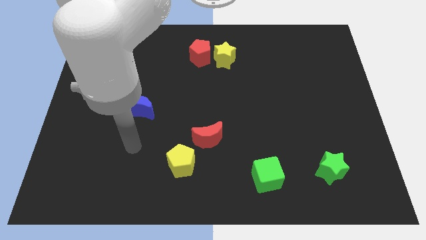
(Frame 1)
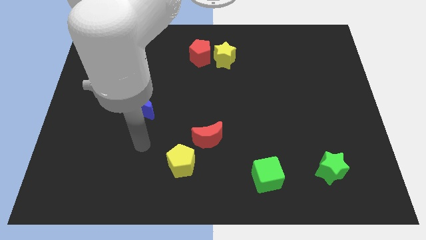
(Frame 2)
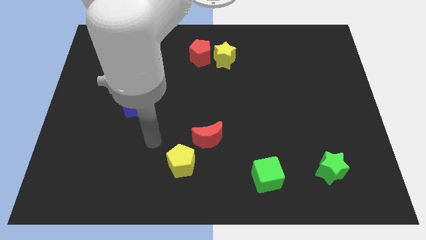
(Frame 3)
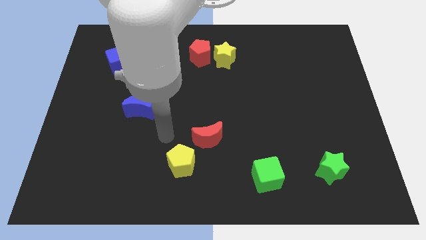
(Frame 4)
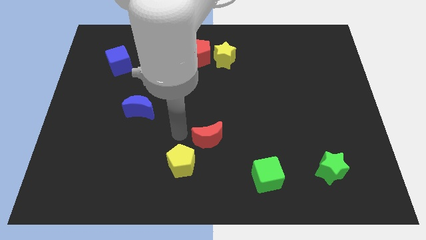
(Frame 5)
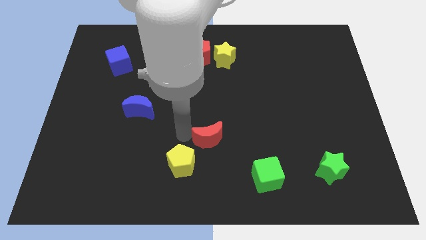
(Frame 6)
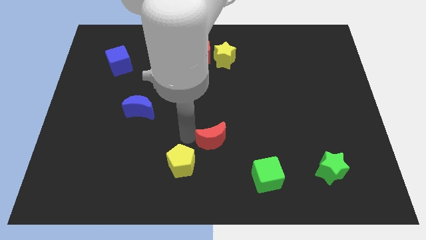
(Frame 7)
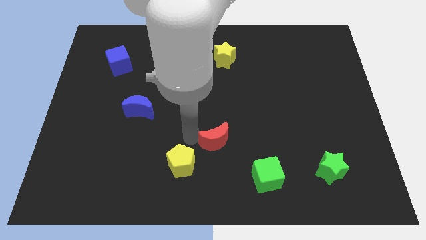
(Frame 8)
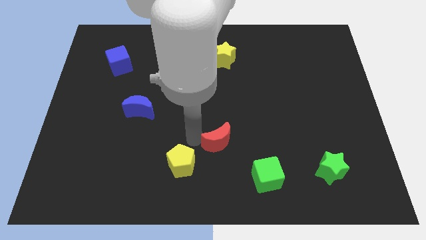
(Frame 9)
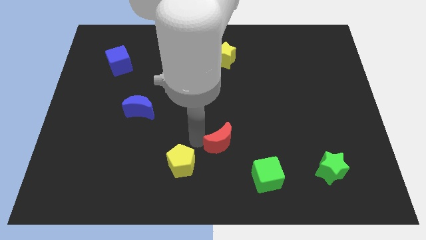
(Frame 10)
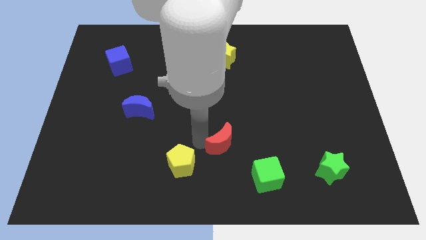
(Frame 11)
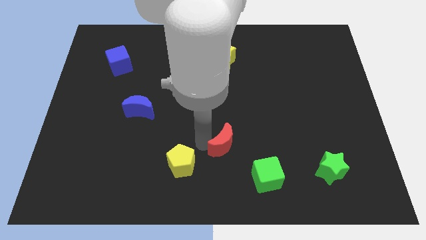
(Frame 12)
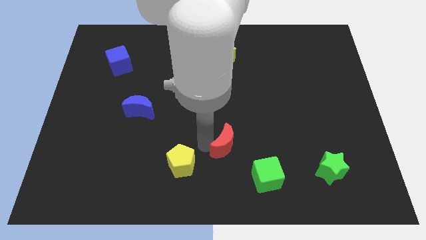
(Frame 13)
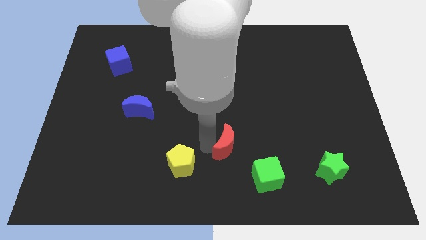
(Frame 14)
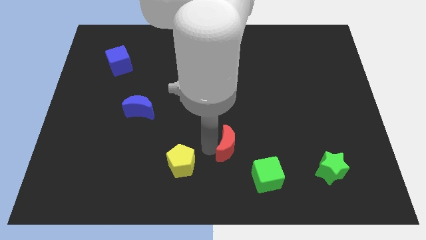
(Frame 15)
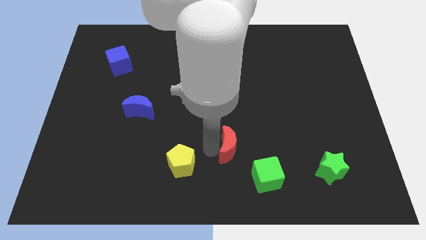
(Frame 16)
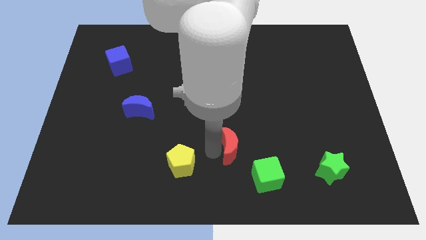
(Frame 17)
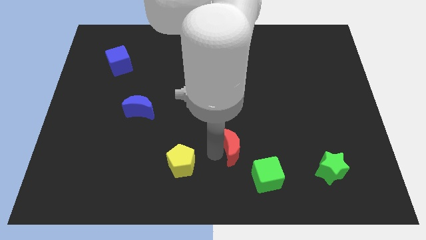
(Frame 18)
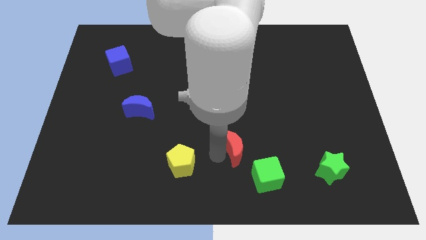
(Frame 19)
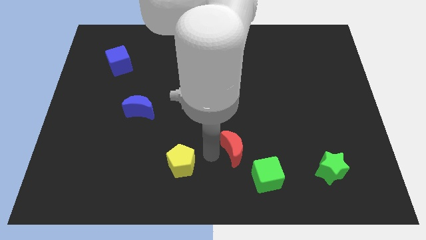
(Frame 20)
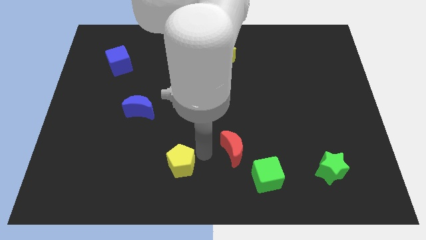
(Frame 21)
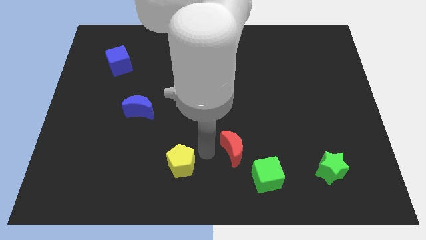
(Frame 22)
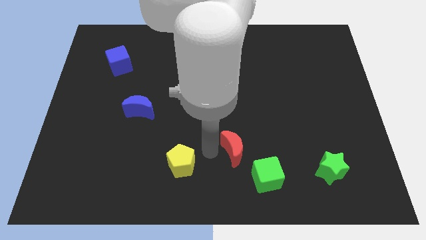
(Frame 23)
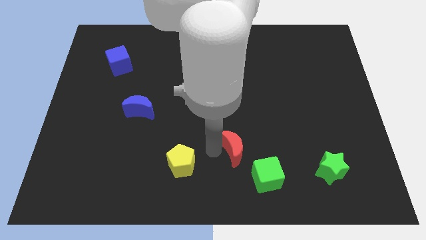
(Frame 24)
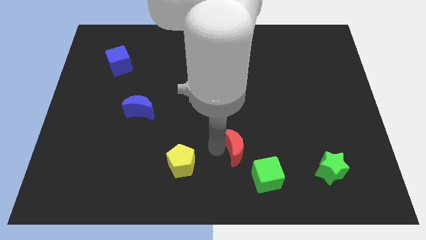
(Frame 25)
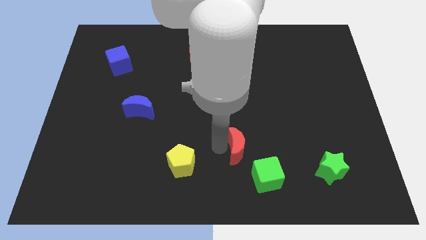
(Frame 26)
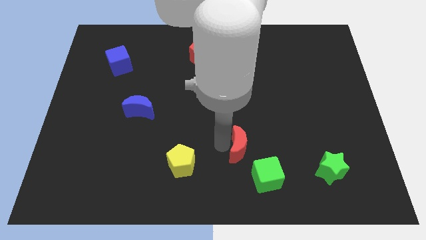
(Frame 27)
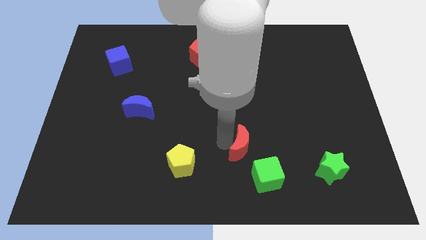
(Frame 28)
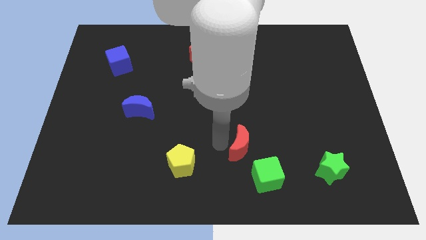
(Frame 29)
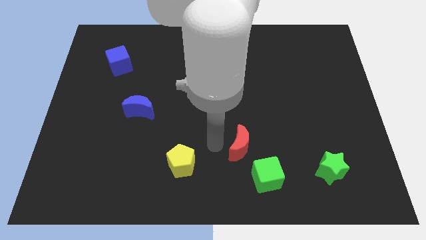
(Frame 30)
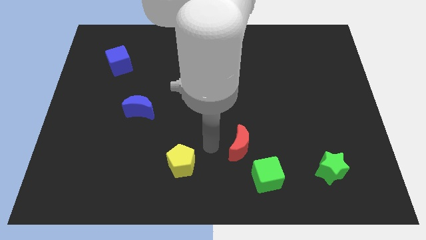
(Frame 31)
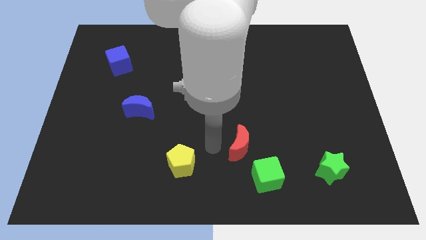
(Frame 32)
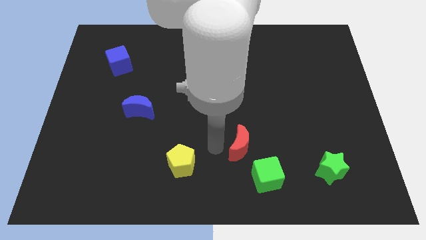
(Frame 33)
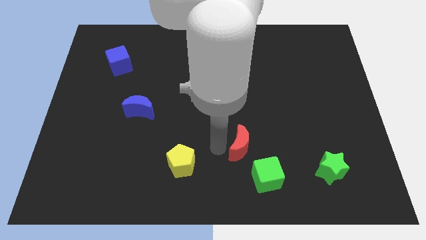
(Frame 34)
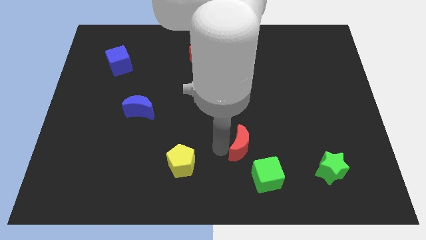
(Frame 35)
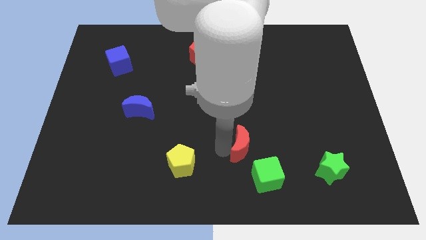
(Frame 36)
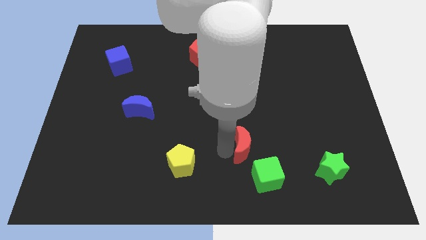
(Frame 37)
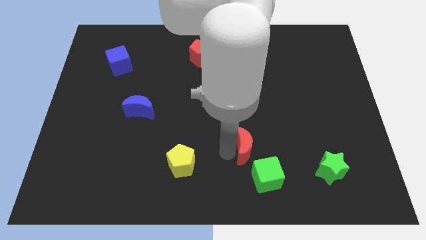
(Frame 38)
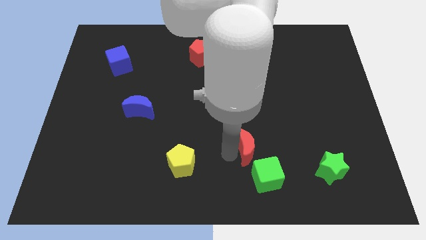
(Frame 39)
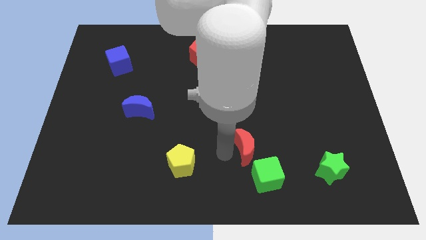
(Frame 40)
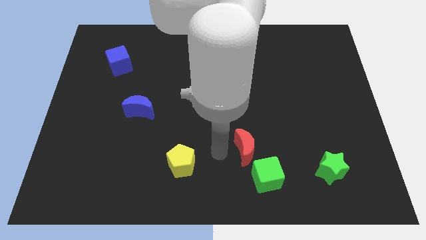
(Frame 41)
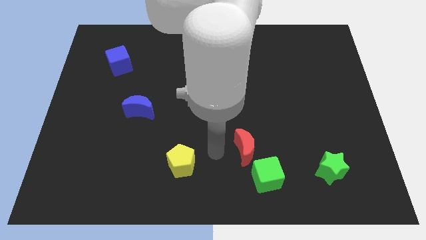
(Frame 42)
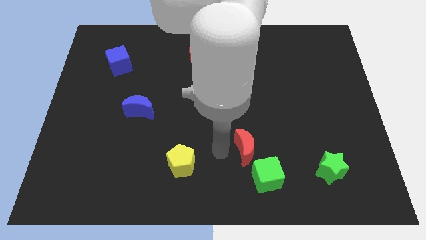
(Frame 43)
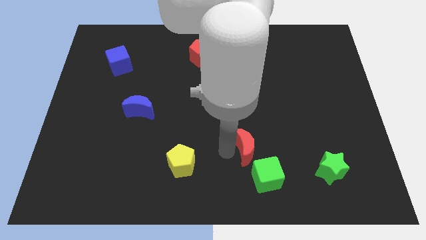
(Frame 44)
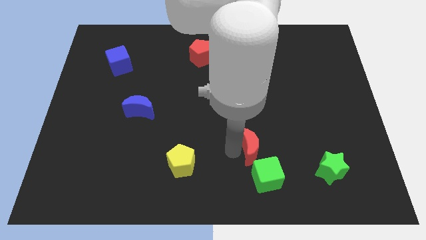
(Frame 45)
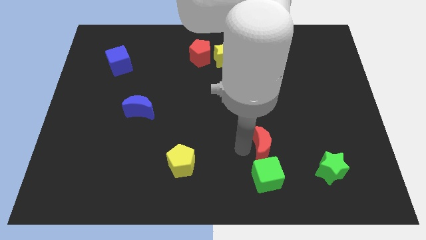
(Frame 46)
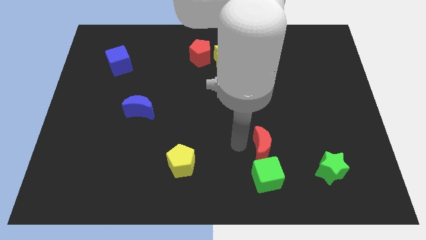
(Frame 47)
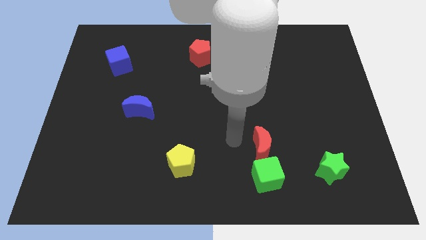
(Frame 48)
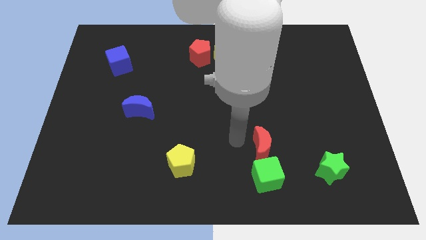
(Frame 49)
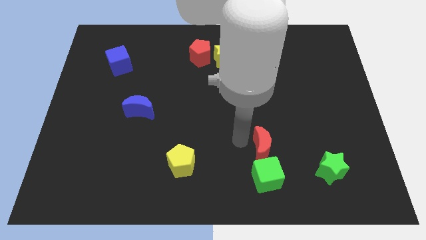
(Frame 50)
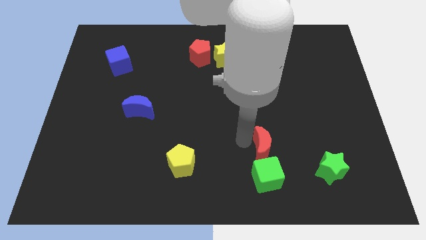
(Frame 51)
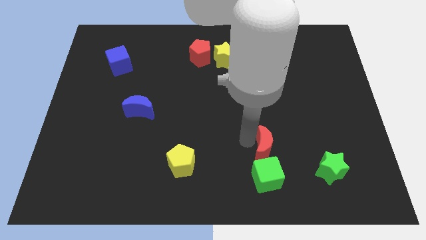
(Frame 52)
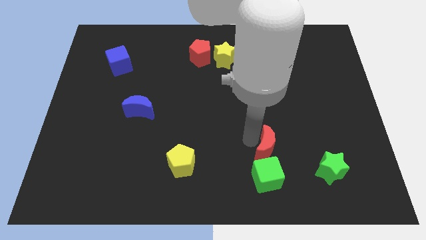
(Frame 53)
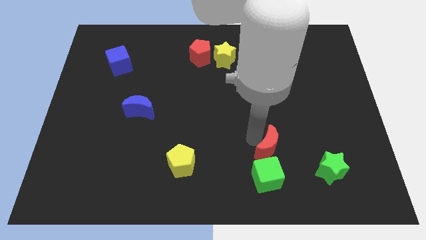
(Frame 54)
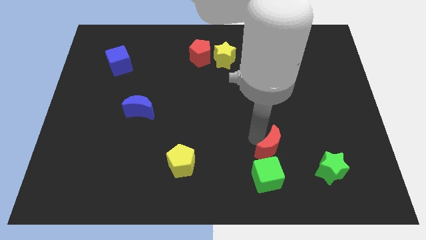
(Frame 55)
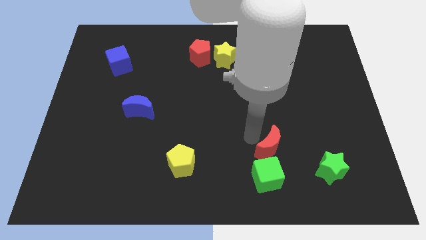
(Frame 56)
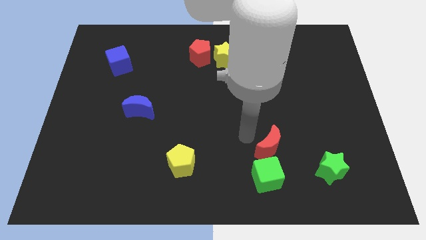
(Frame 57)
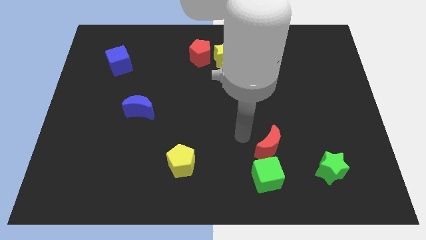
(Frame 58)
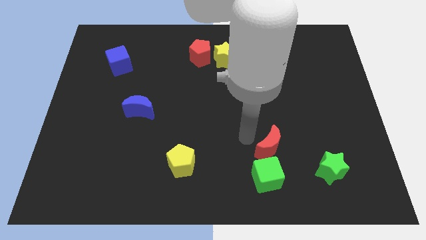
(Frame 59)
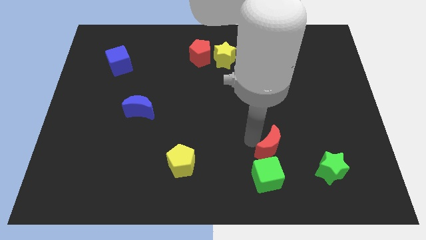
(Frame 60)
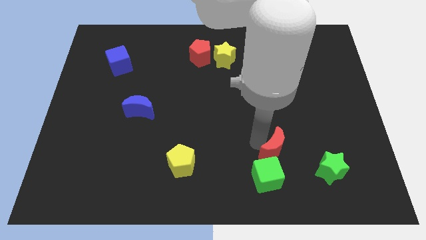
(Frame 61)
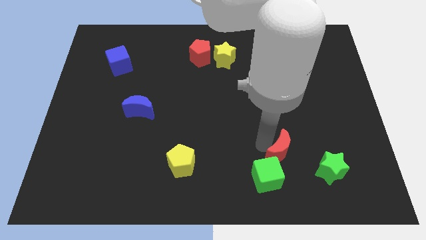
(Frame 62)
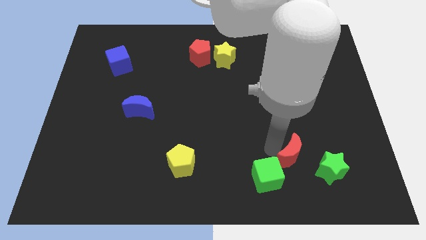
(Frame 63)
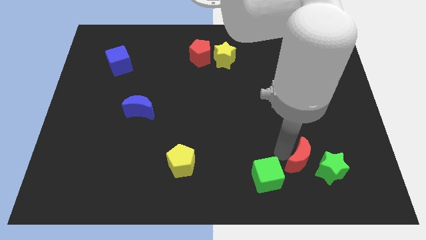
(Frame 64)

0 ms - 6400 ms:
put the red moon close to the green star
